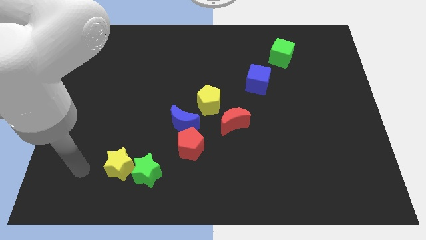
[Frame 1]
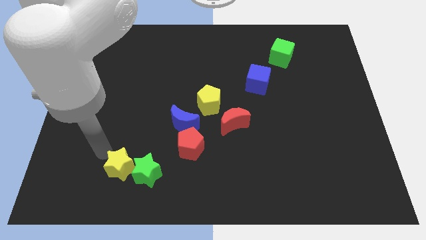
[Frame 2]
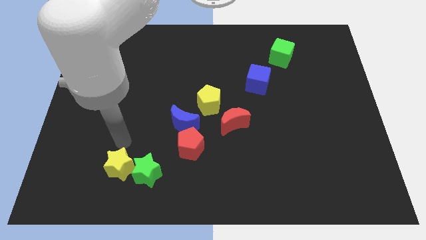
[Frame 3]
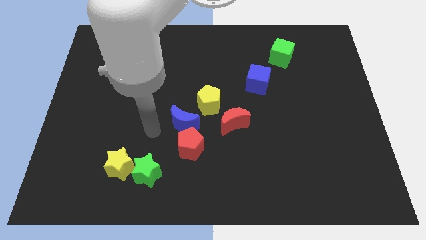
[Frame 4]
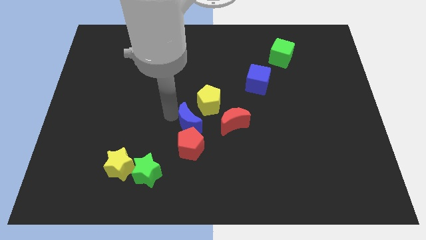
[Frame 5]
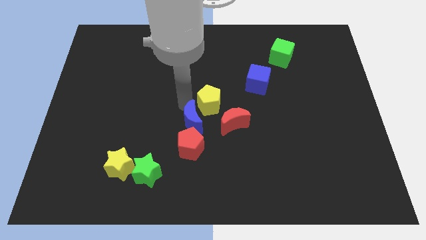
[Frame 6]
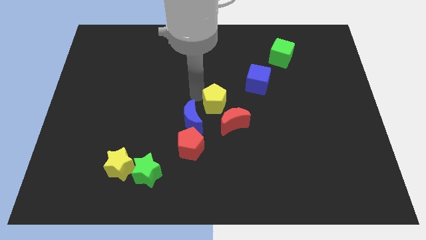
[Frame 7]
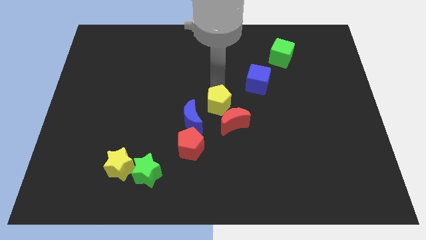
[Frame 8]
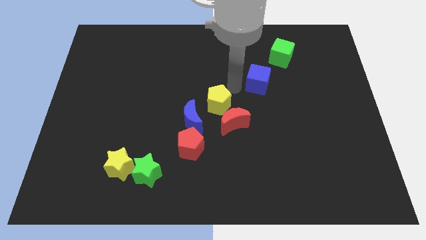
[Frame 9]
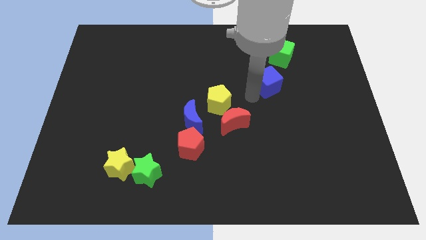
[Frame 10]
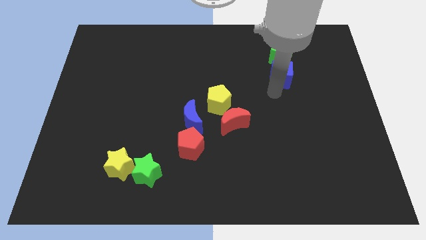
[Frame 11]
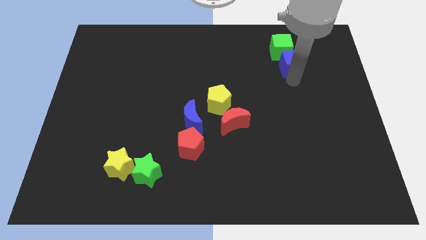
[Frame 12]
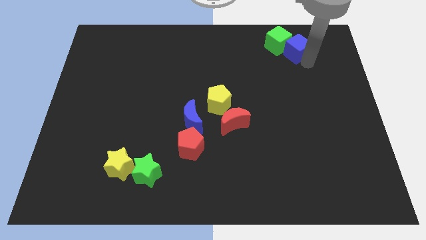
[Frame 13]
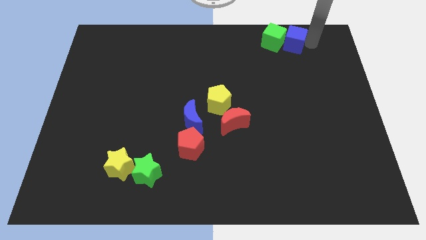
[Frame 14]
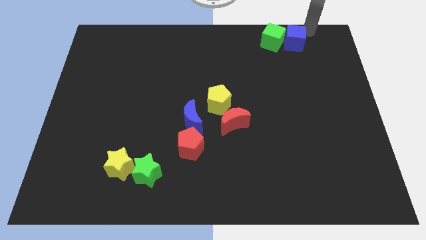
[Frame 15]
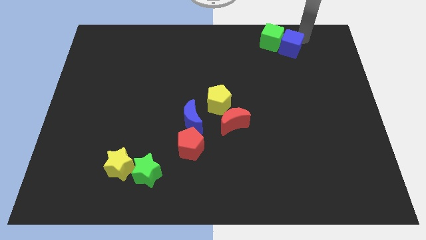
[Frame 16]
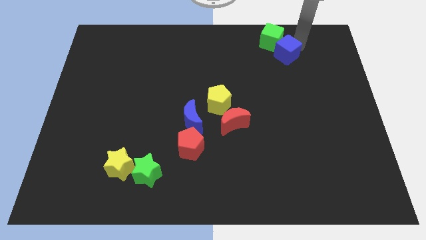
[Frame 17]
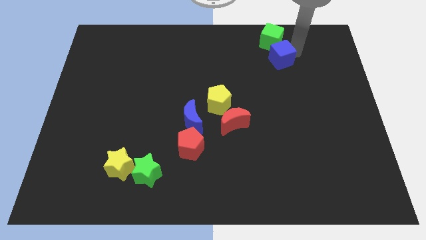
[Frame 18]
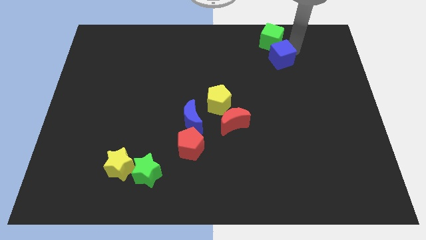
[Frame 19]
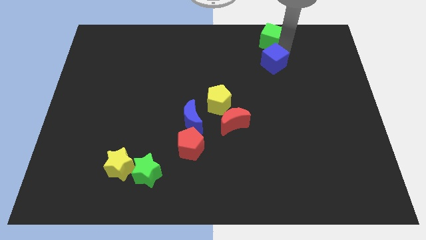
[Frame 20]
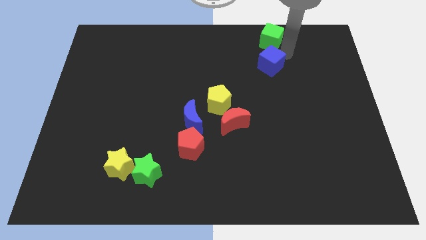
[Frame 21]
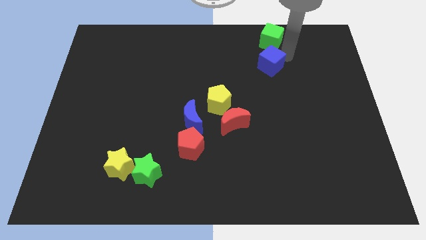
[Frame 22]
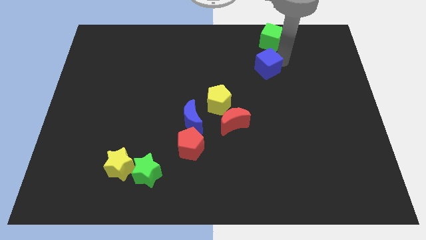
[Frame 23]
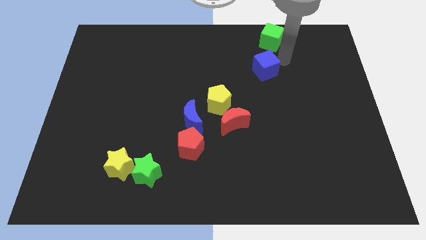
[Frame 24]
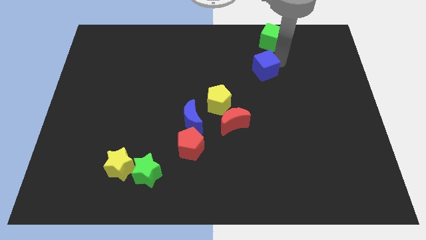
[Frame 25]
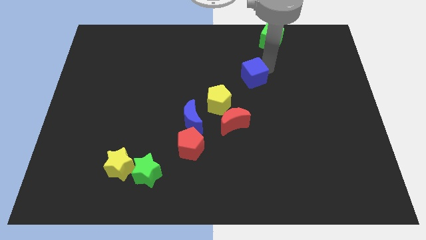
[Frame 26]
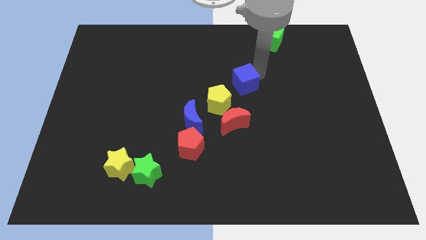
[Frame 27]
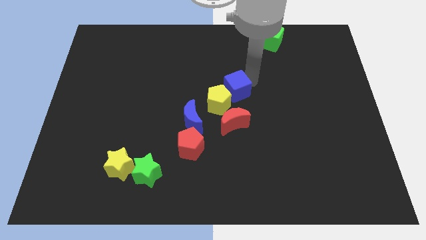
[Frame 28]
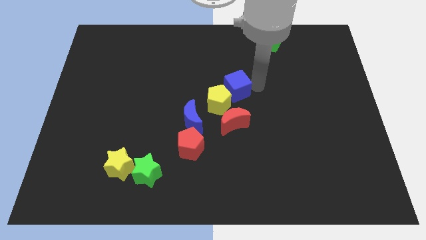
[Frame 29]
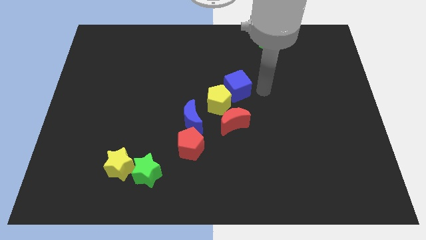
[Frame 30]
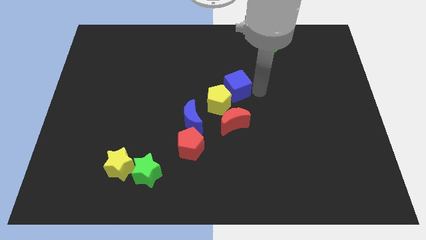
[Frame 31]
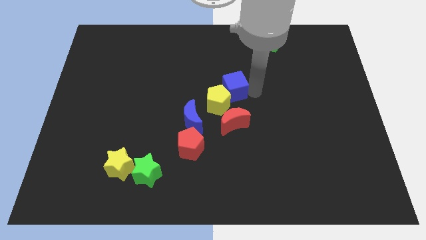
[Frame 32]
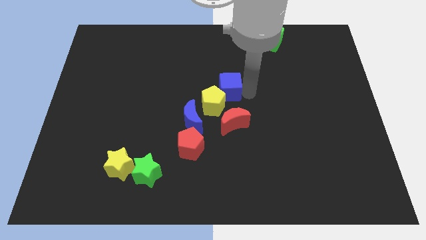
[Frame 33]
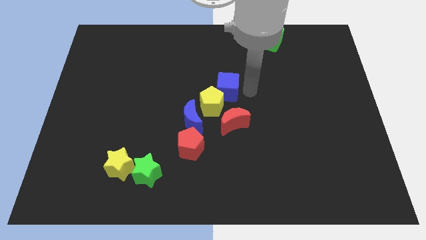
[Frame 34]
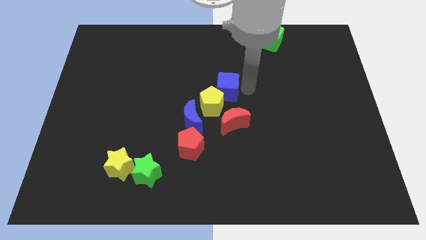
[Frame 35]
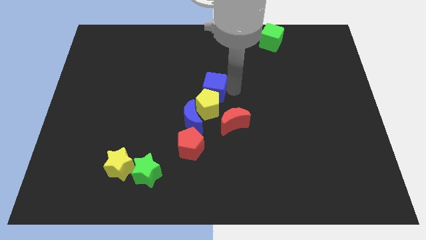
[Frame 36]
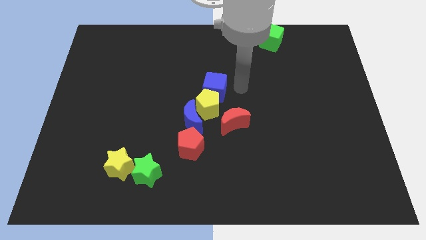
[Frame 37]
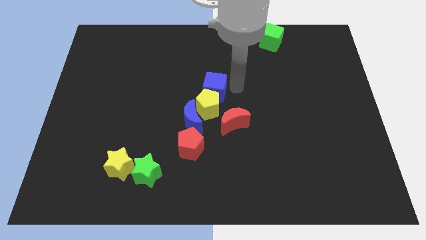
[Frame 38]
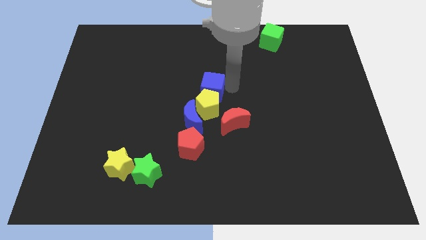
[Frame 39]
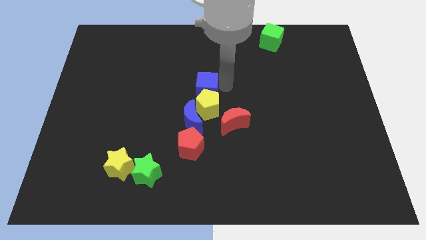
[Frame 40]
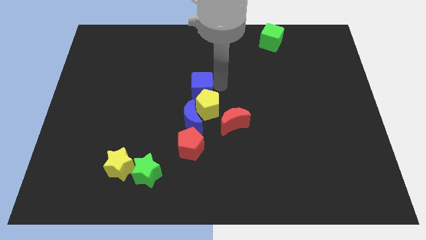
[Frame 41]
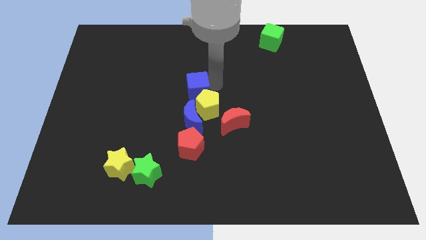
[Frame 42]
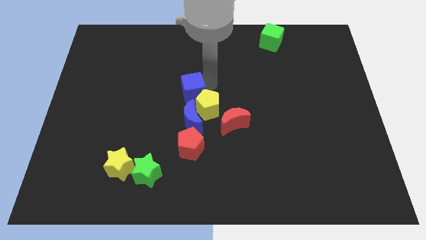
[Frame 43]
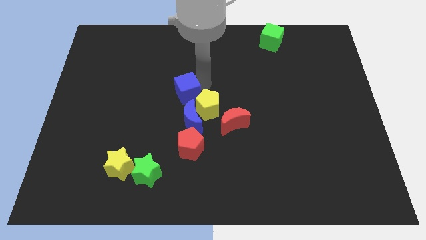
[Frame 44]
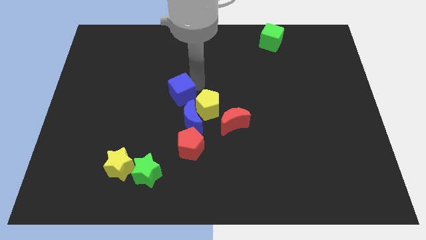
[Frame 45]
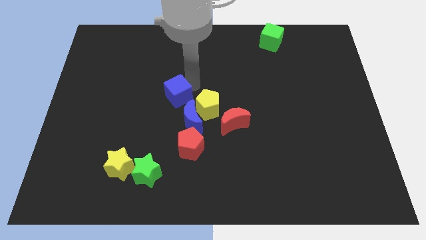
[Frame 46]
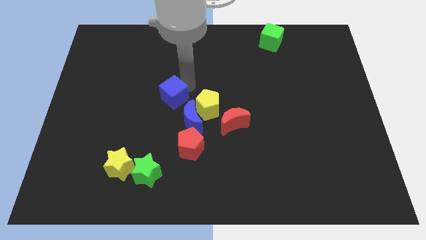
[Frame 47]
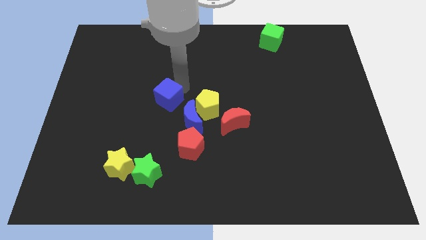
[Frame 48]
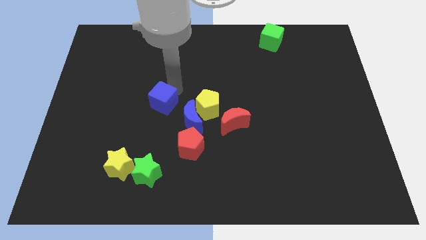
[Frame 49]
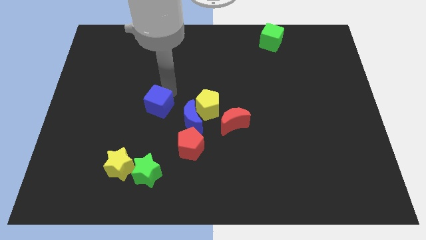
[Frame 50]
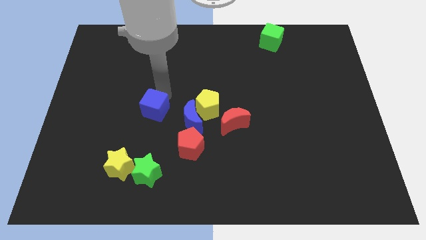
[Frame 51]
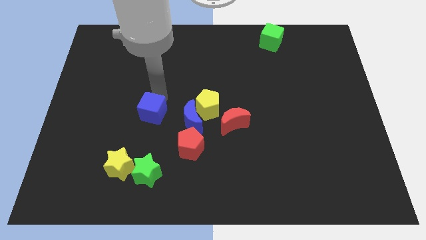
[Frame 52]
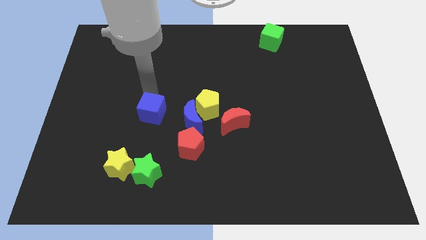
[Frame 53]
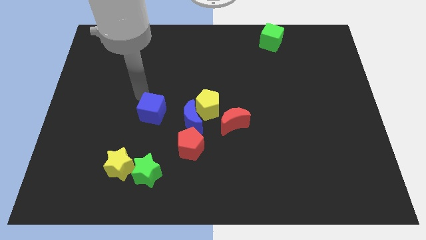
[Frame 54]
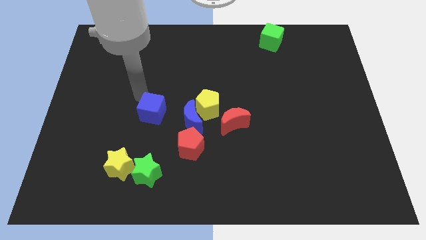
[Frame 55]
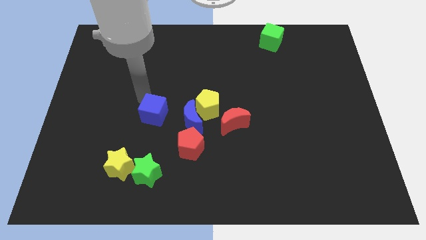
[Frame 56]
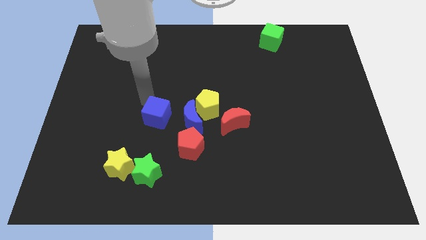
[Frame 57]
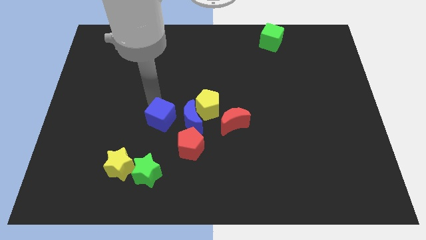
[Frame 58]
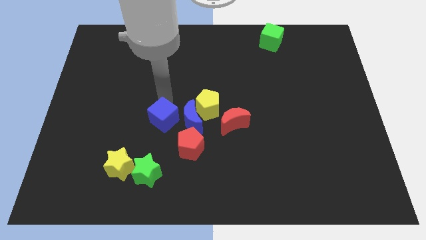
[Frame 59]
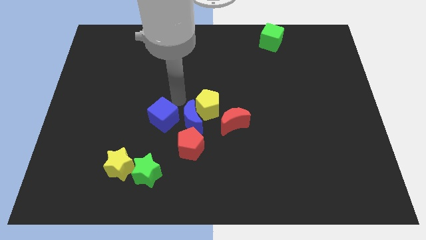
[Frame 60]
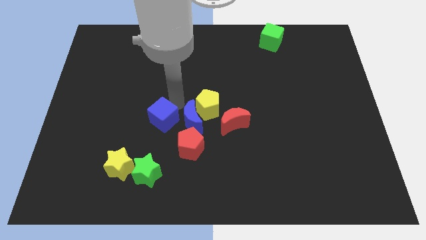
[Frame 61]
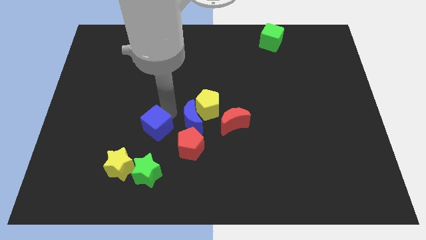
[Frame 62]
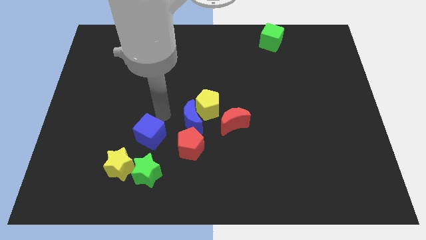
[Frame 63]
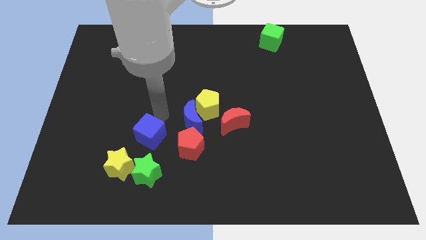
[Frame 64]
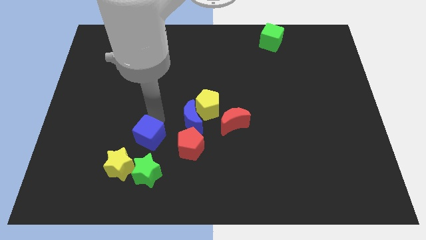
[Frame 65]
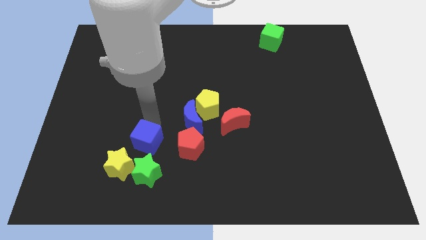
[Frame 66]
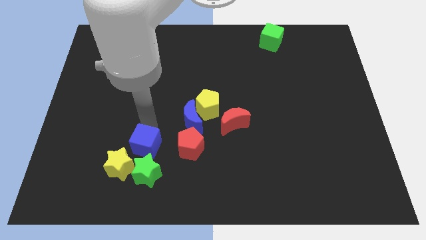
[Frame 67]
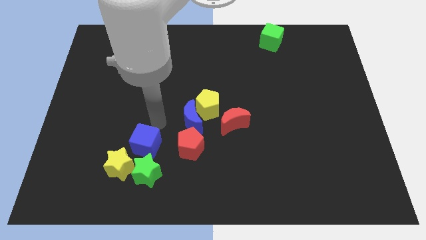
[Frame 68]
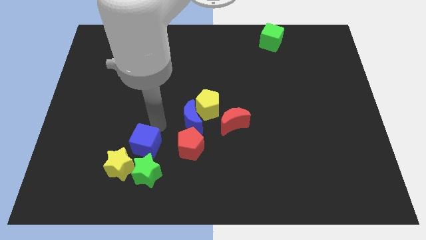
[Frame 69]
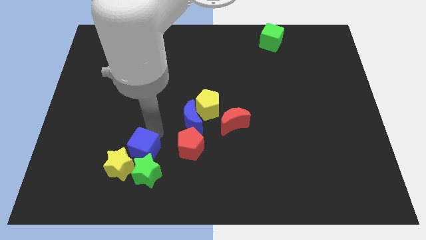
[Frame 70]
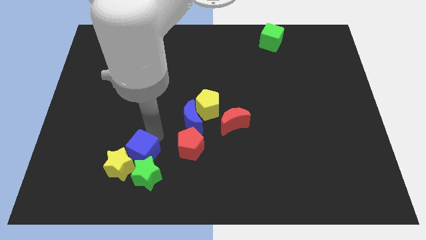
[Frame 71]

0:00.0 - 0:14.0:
put the blue cube to the yellow star

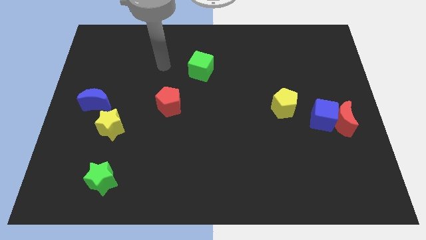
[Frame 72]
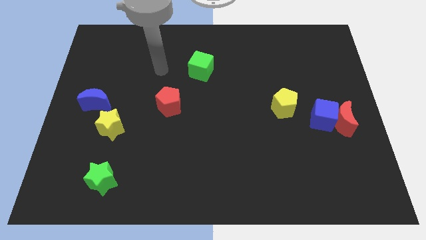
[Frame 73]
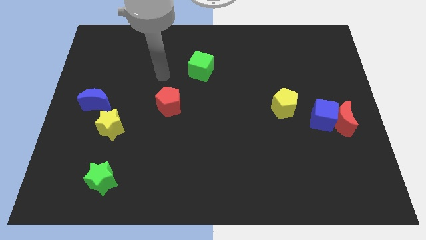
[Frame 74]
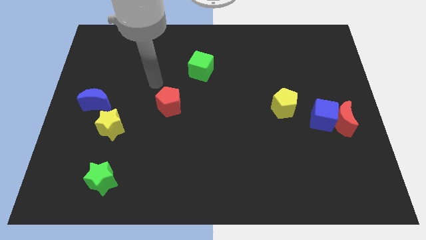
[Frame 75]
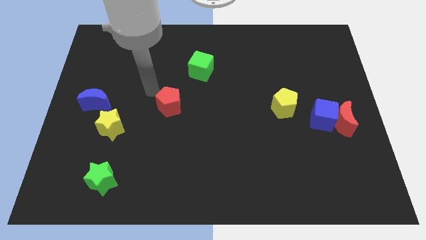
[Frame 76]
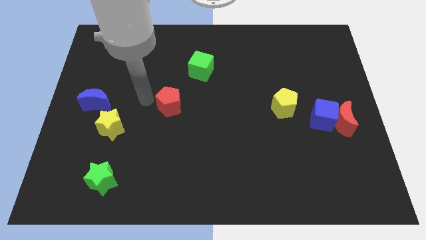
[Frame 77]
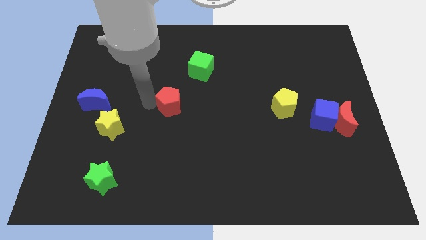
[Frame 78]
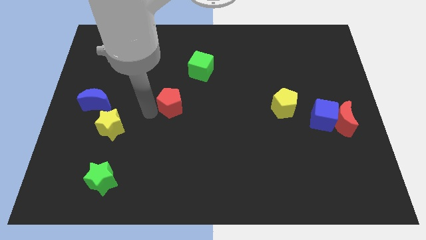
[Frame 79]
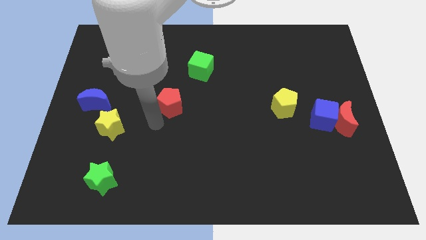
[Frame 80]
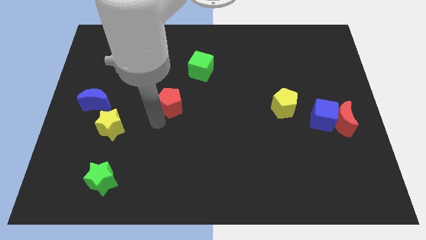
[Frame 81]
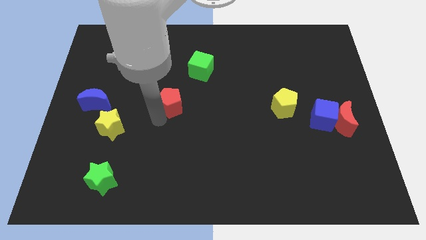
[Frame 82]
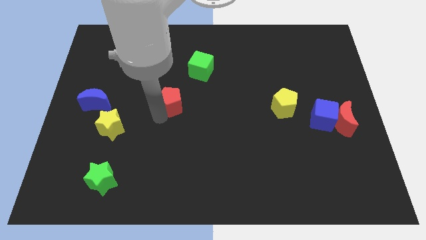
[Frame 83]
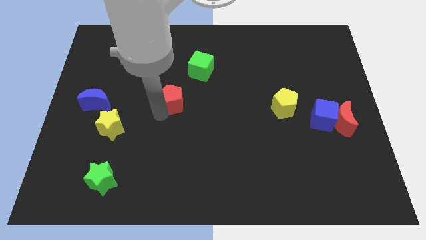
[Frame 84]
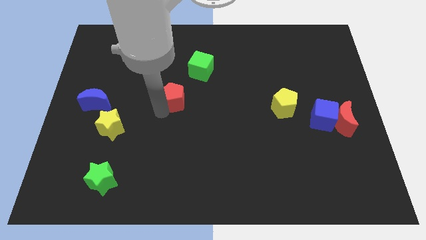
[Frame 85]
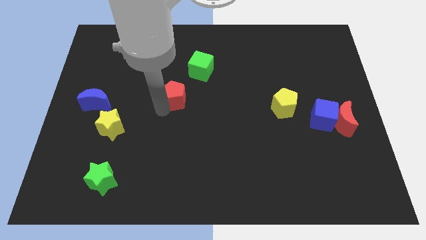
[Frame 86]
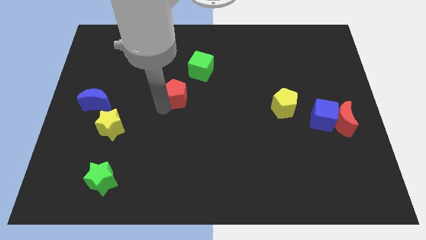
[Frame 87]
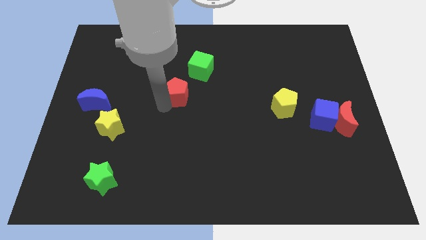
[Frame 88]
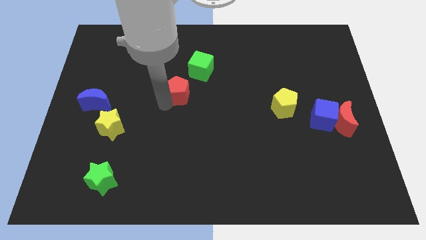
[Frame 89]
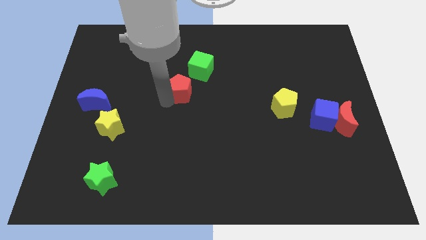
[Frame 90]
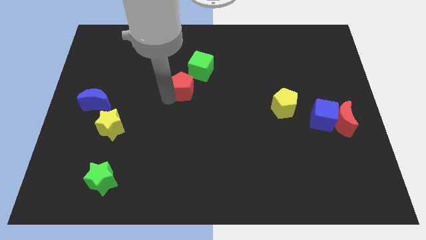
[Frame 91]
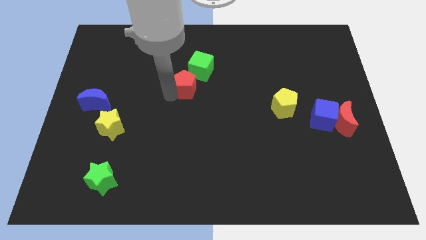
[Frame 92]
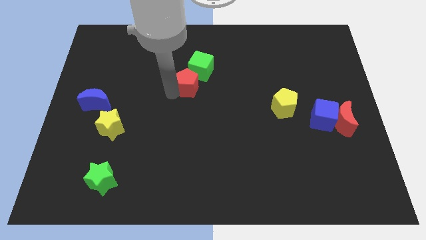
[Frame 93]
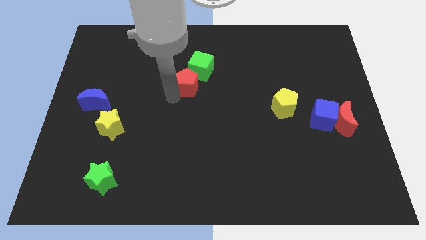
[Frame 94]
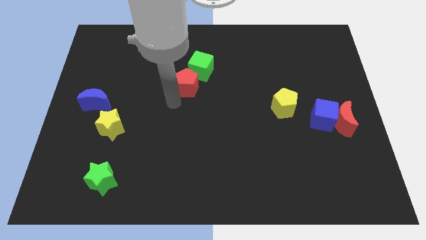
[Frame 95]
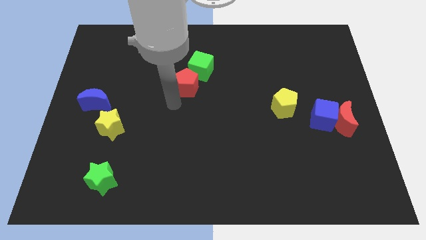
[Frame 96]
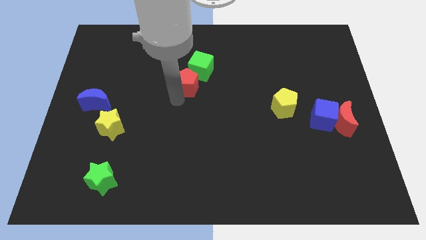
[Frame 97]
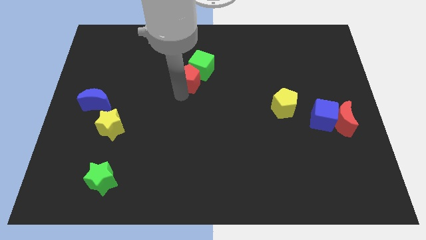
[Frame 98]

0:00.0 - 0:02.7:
put the red pentagon next to the green cube
